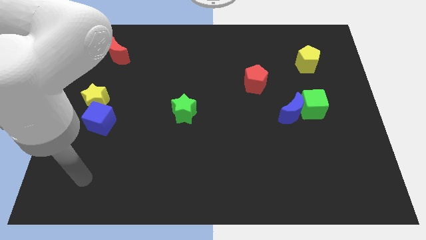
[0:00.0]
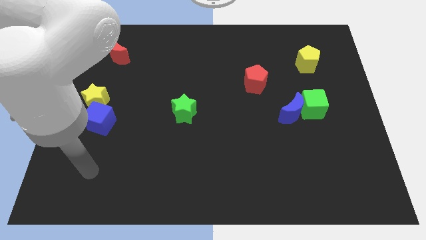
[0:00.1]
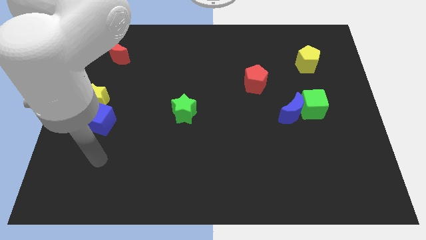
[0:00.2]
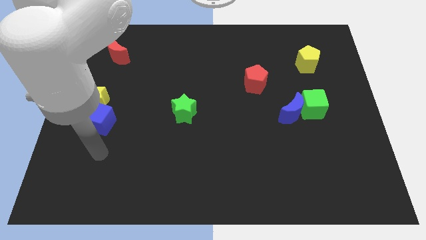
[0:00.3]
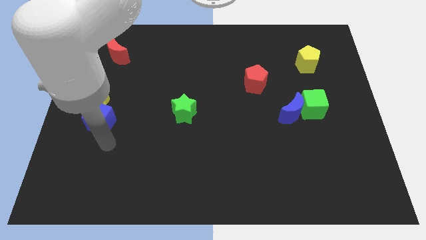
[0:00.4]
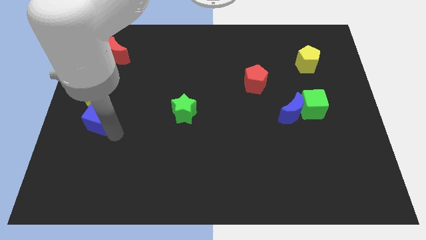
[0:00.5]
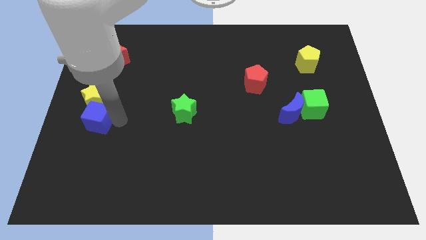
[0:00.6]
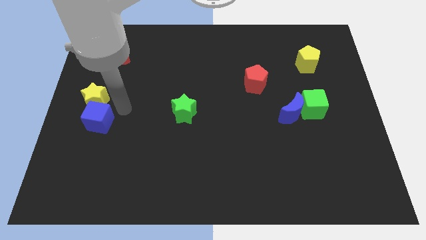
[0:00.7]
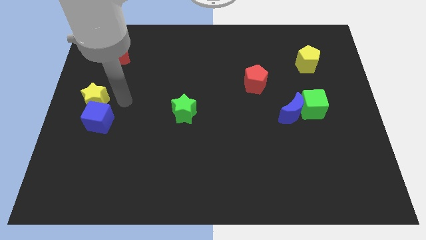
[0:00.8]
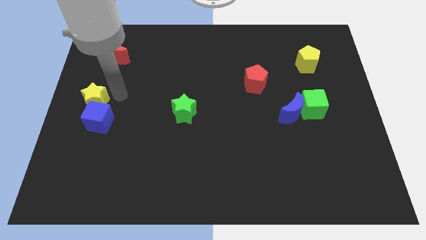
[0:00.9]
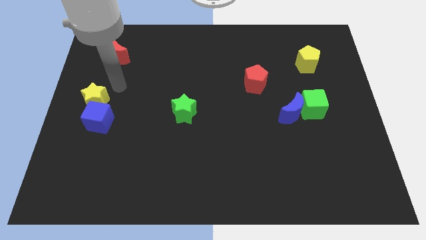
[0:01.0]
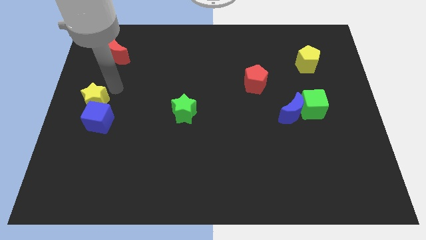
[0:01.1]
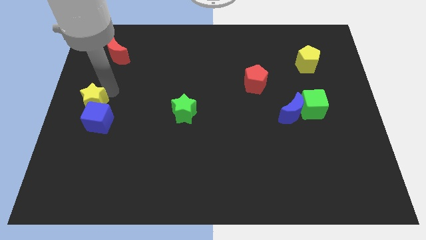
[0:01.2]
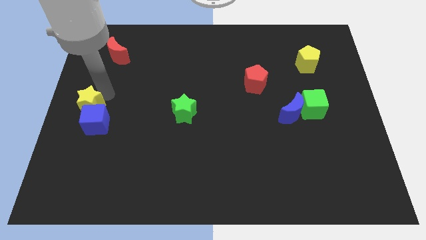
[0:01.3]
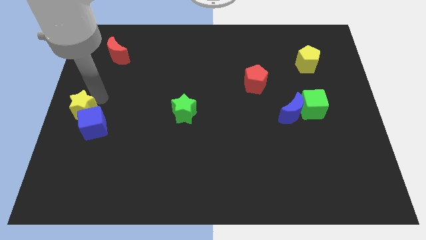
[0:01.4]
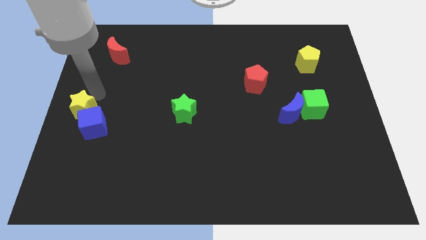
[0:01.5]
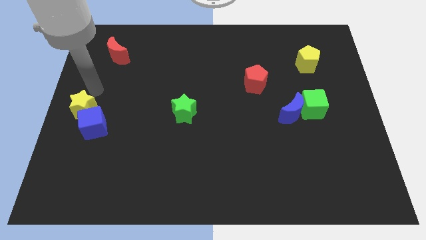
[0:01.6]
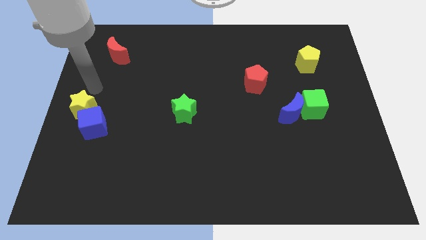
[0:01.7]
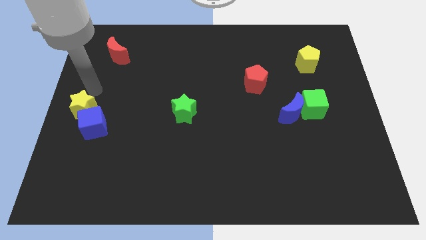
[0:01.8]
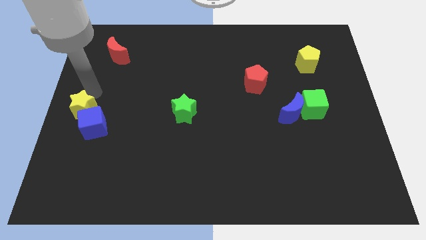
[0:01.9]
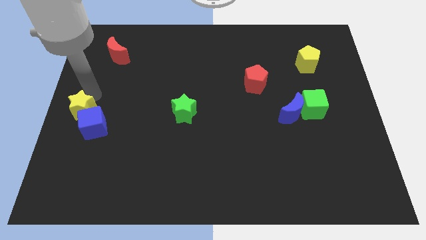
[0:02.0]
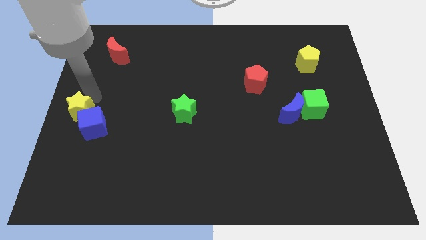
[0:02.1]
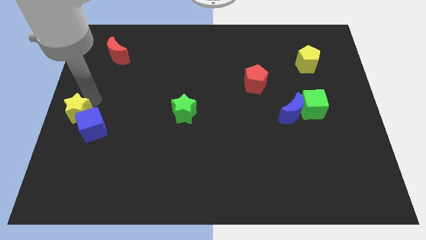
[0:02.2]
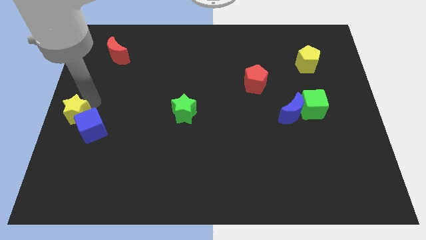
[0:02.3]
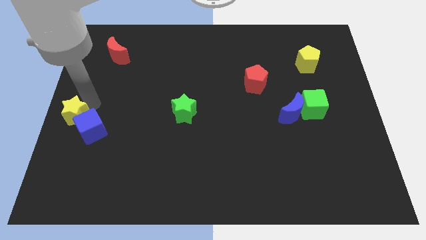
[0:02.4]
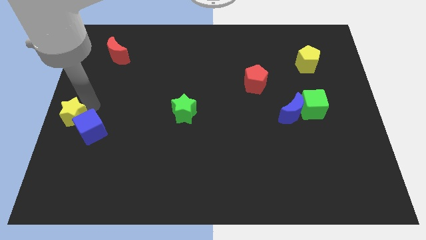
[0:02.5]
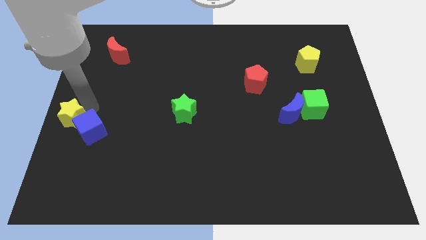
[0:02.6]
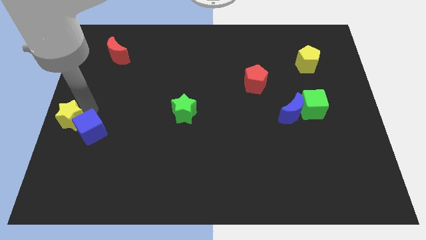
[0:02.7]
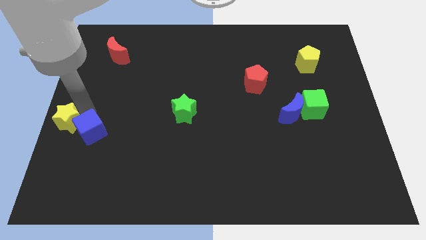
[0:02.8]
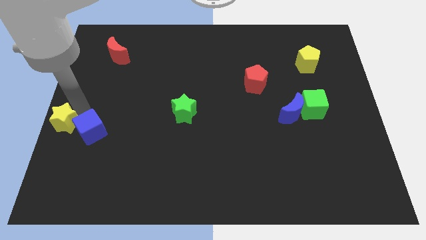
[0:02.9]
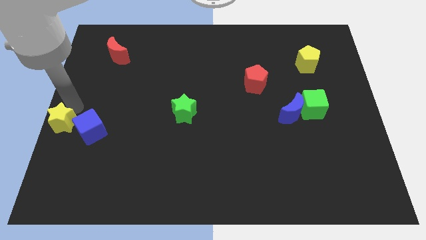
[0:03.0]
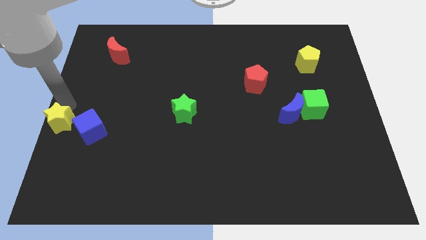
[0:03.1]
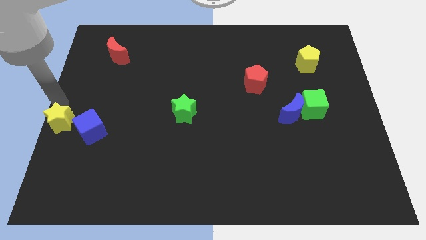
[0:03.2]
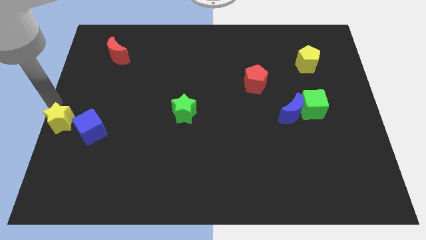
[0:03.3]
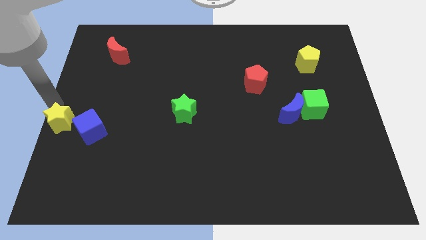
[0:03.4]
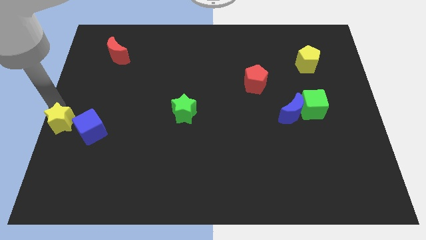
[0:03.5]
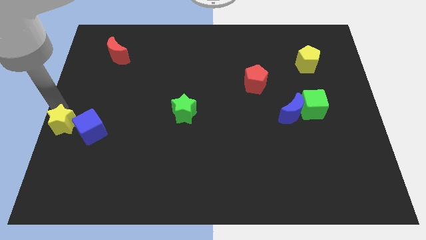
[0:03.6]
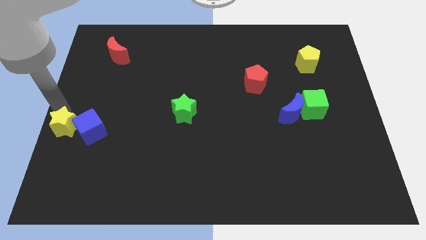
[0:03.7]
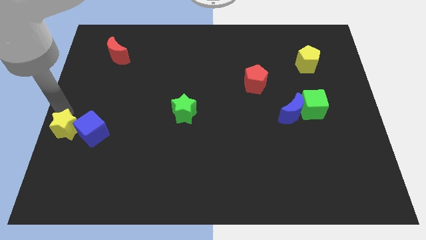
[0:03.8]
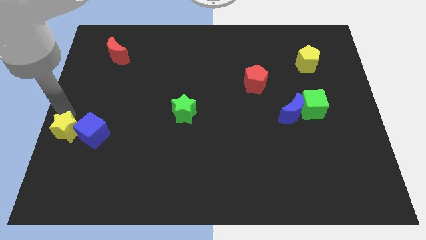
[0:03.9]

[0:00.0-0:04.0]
slide the yellow star down somewhat

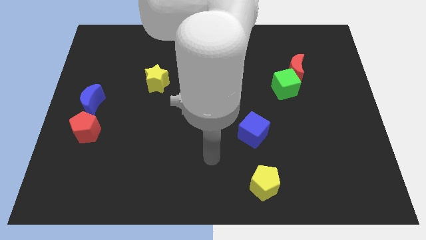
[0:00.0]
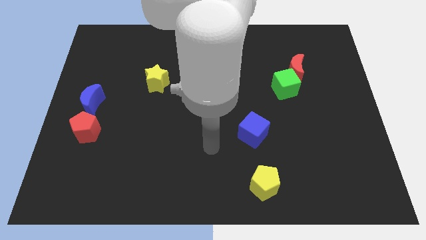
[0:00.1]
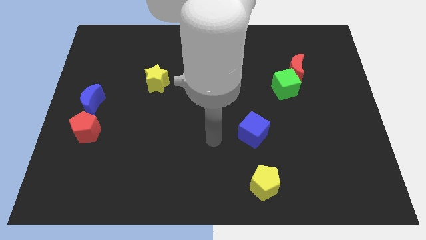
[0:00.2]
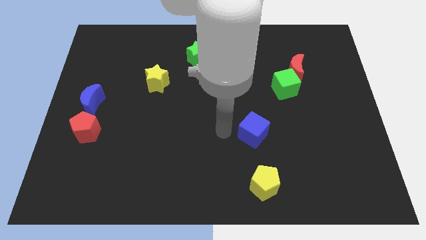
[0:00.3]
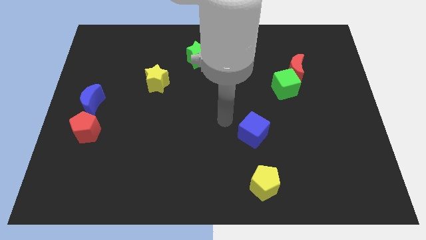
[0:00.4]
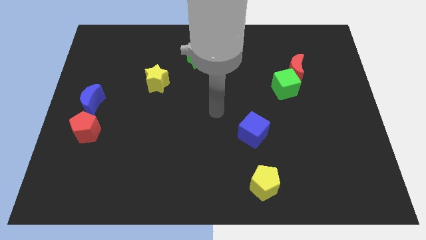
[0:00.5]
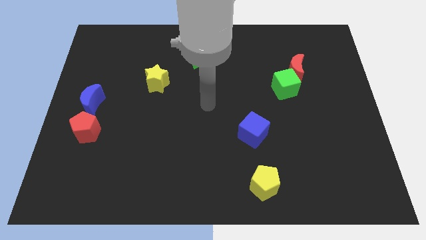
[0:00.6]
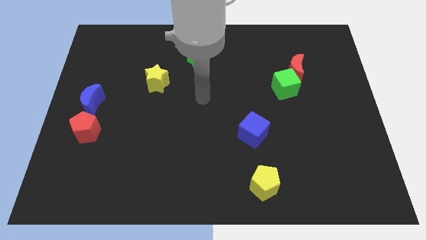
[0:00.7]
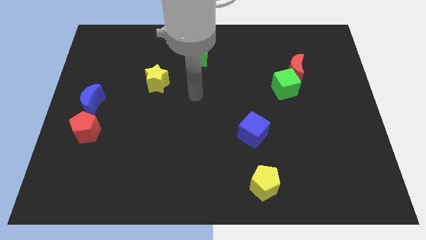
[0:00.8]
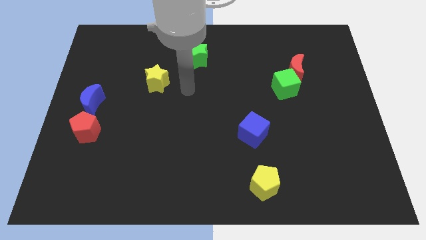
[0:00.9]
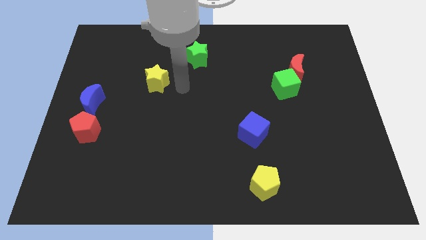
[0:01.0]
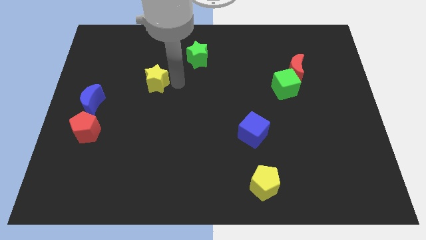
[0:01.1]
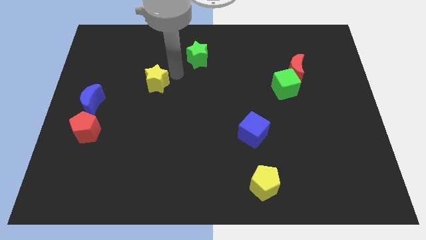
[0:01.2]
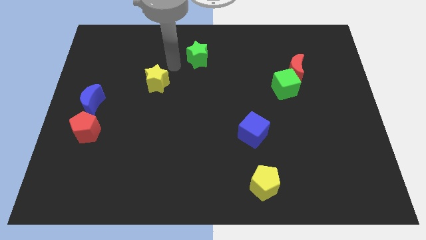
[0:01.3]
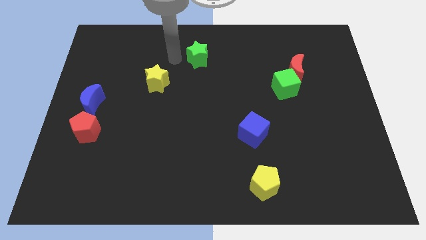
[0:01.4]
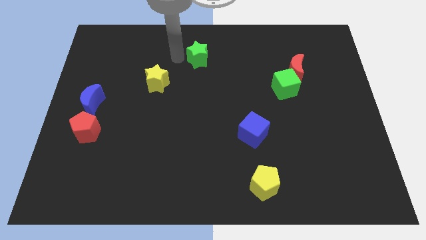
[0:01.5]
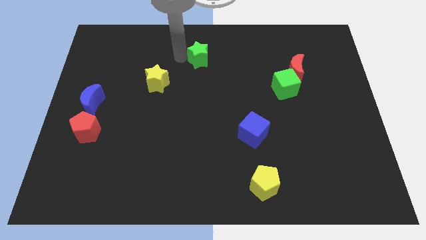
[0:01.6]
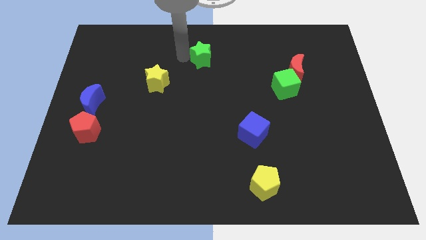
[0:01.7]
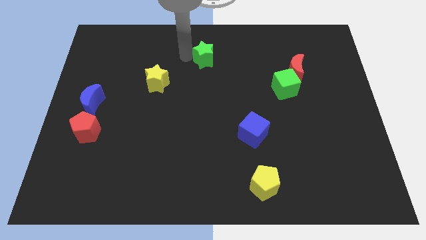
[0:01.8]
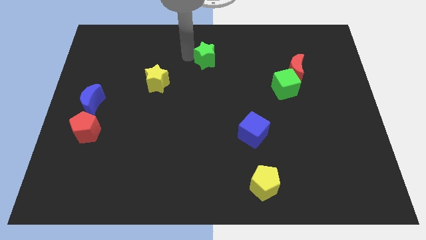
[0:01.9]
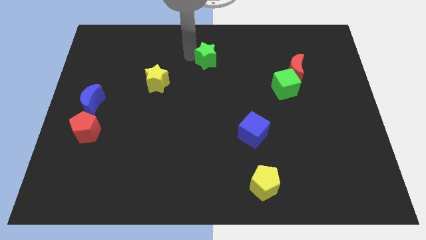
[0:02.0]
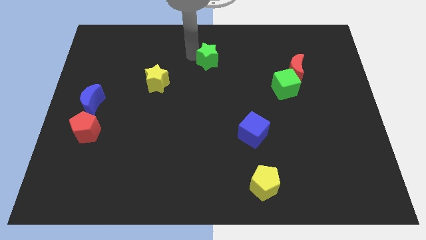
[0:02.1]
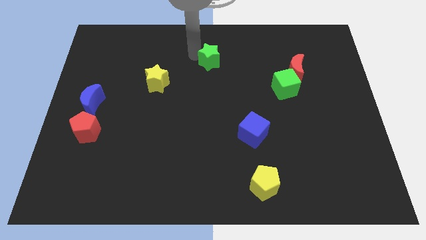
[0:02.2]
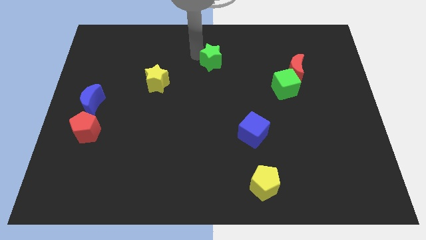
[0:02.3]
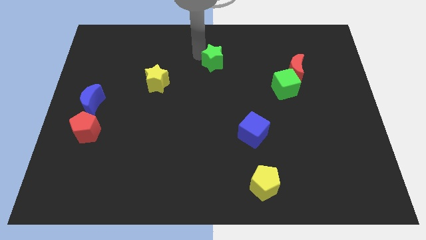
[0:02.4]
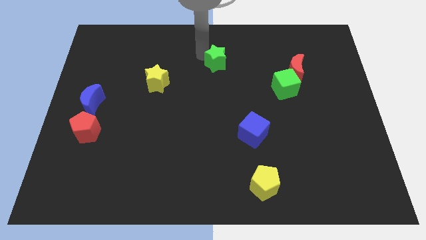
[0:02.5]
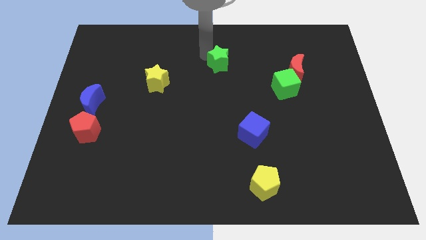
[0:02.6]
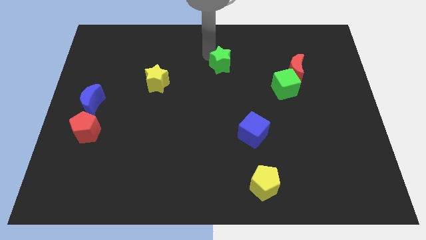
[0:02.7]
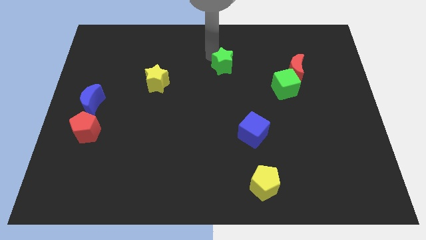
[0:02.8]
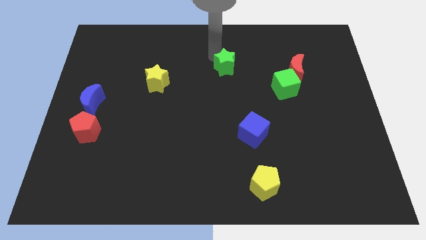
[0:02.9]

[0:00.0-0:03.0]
push the green star a bit to the right

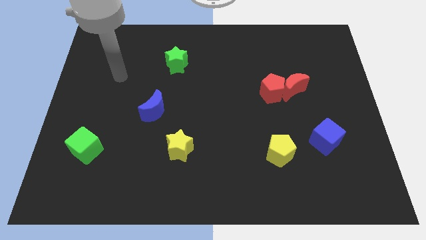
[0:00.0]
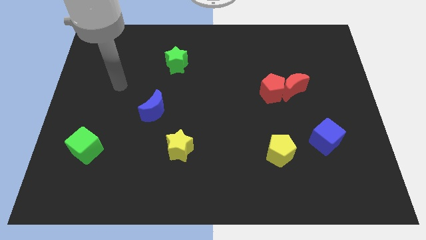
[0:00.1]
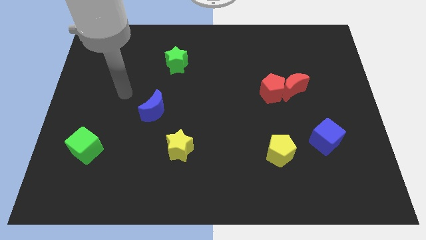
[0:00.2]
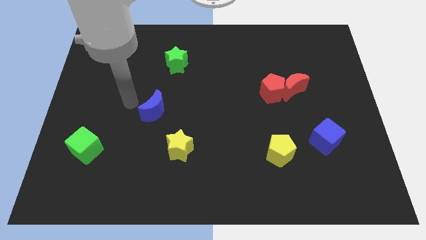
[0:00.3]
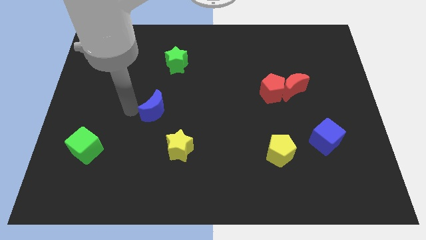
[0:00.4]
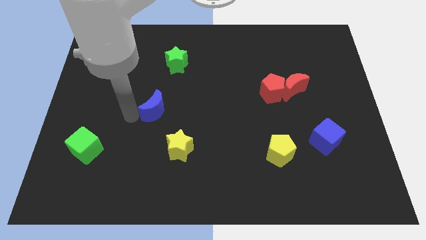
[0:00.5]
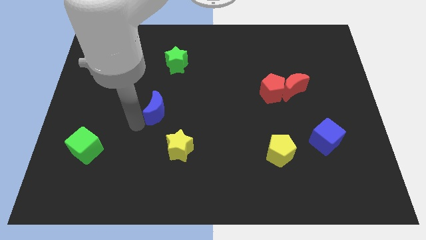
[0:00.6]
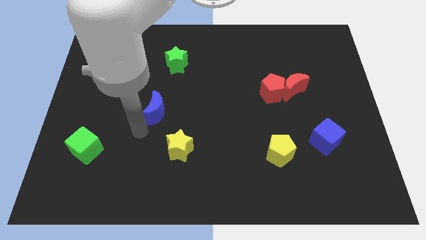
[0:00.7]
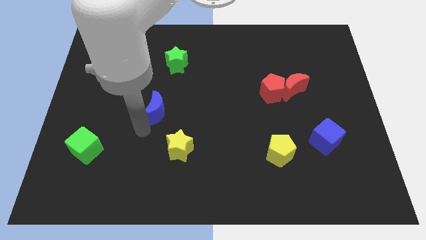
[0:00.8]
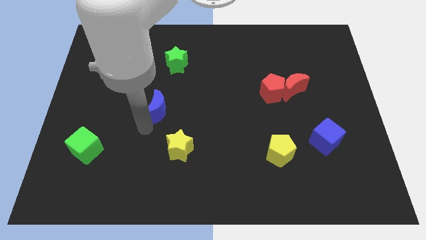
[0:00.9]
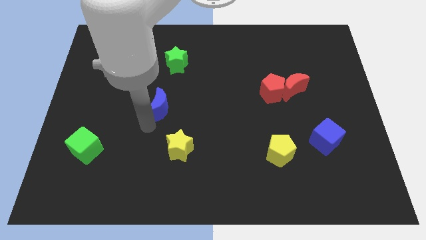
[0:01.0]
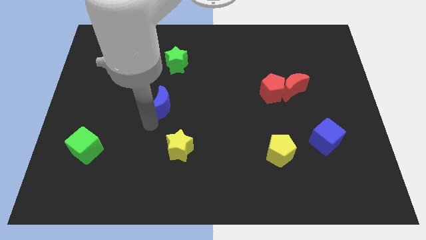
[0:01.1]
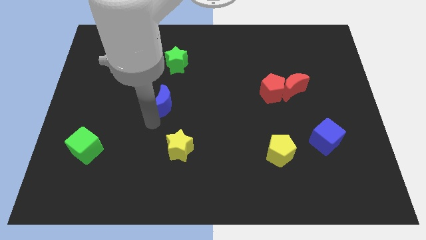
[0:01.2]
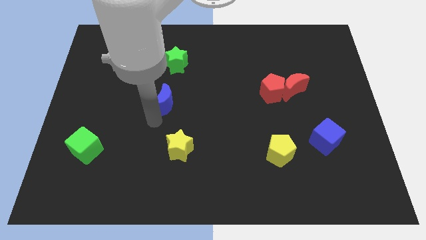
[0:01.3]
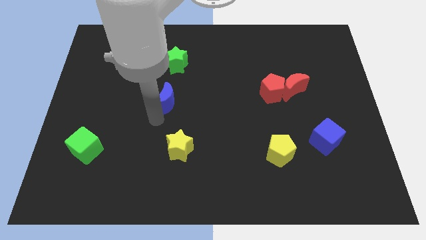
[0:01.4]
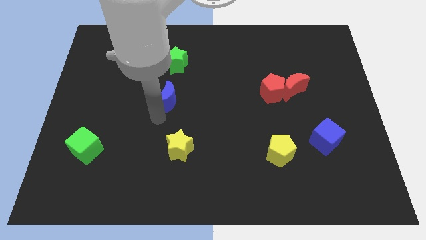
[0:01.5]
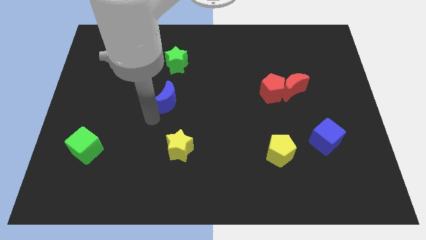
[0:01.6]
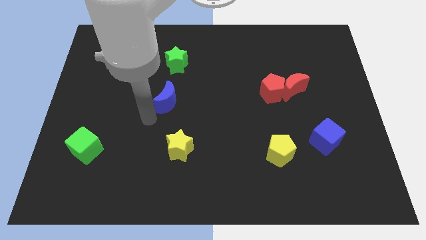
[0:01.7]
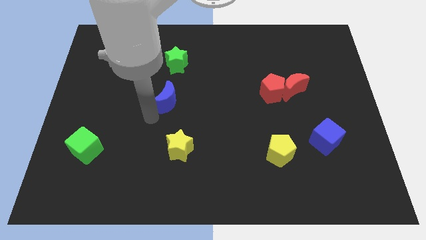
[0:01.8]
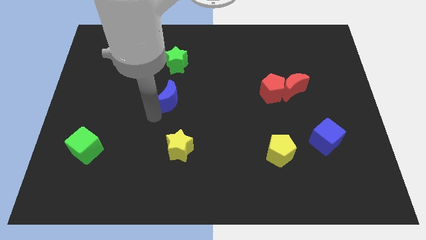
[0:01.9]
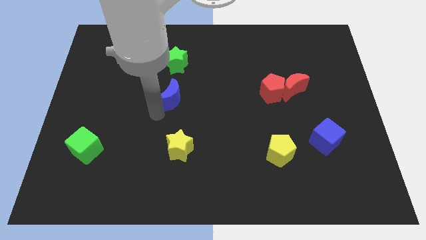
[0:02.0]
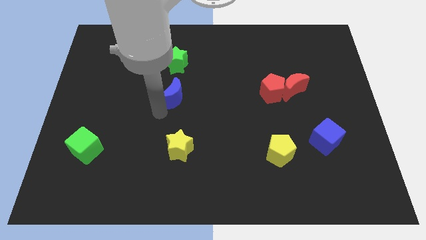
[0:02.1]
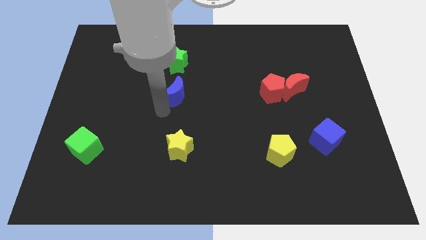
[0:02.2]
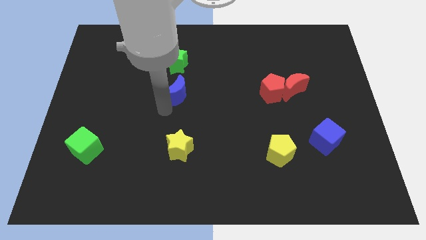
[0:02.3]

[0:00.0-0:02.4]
move the blue moon a bit diagonally upwards and right
